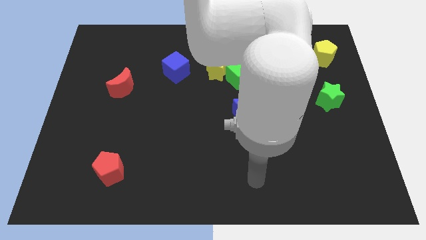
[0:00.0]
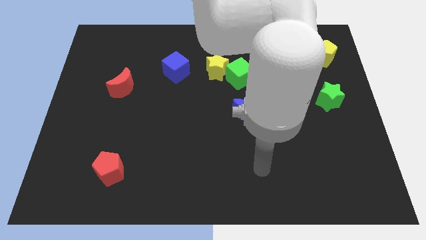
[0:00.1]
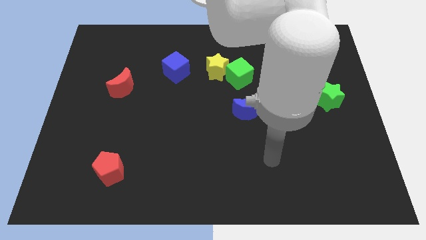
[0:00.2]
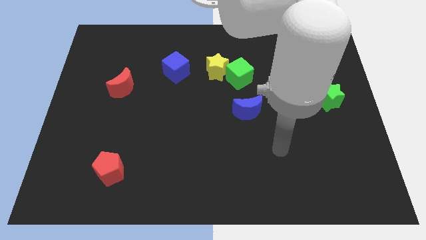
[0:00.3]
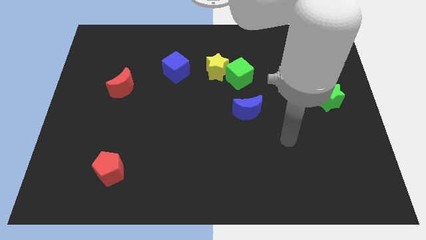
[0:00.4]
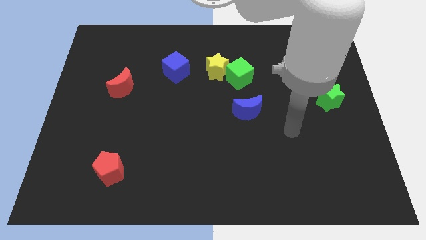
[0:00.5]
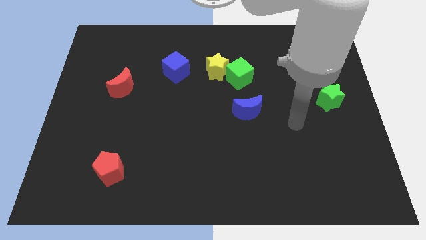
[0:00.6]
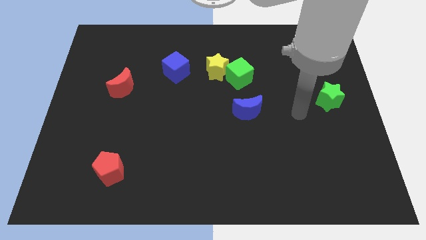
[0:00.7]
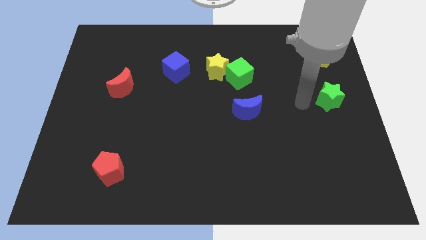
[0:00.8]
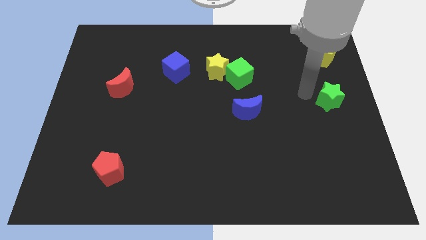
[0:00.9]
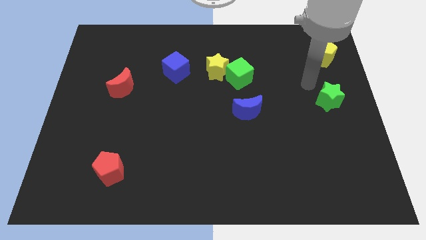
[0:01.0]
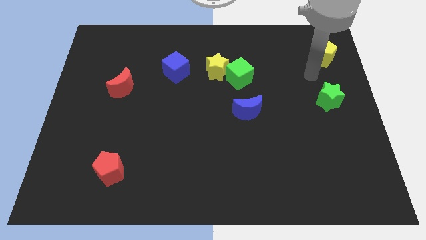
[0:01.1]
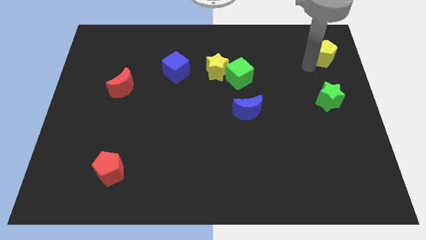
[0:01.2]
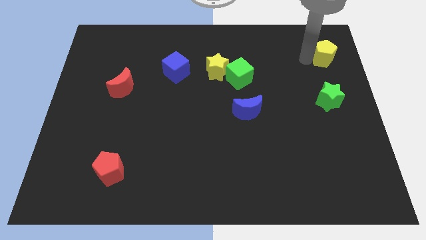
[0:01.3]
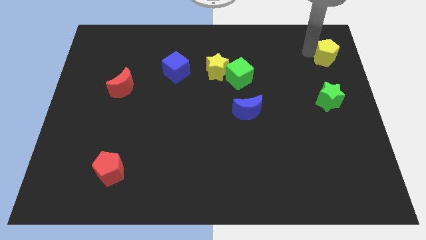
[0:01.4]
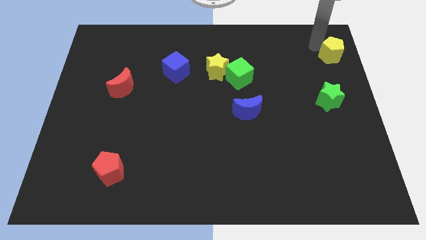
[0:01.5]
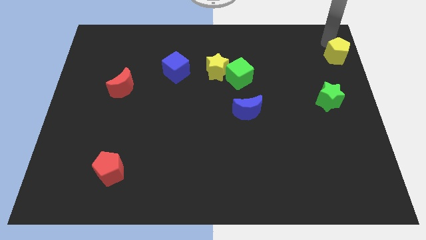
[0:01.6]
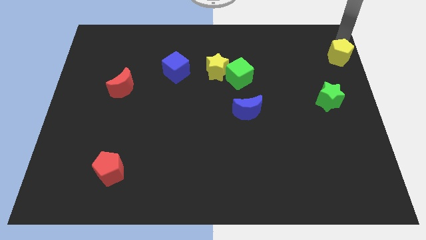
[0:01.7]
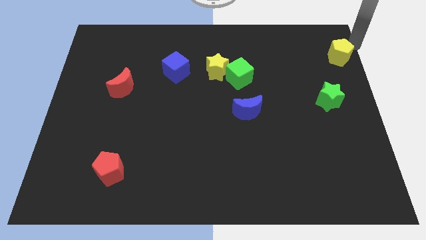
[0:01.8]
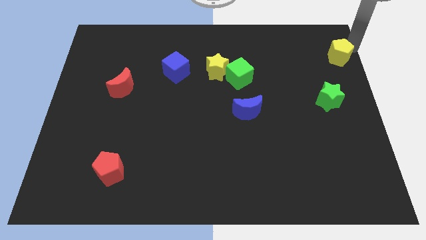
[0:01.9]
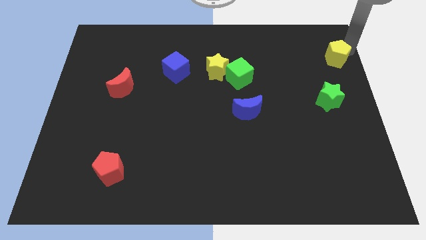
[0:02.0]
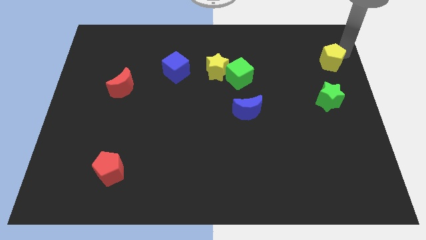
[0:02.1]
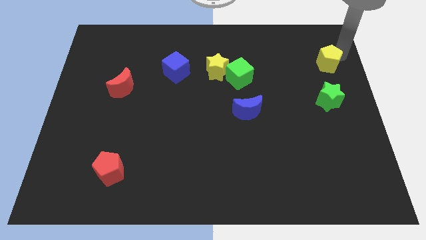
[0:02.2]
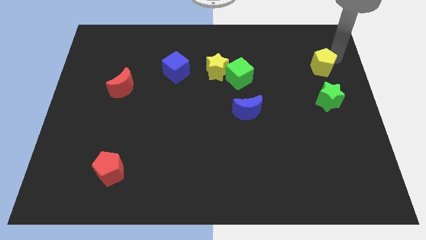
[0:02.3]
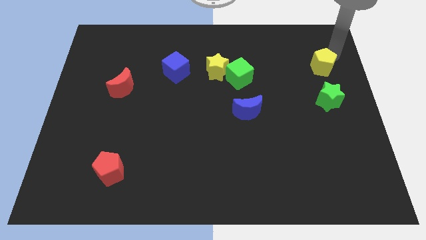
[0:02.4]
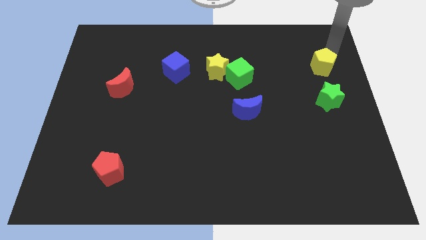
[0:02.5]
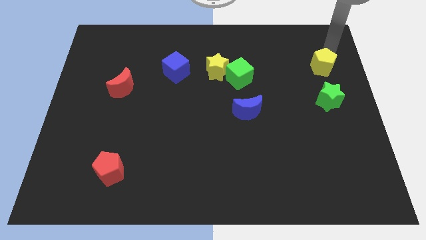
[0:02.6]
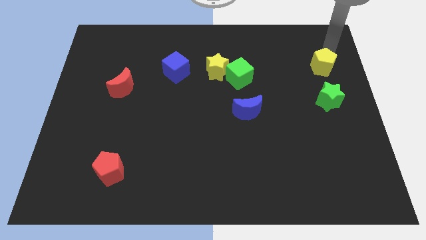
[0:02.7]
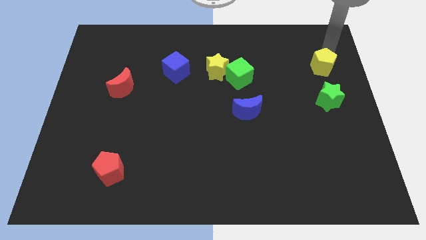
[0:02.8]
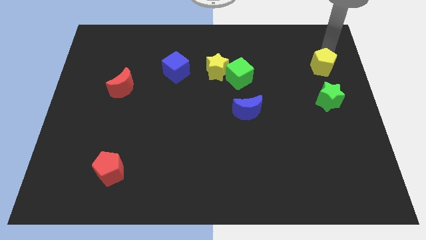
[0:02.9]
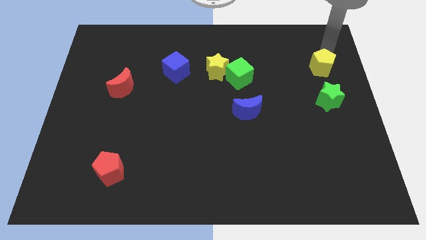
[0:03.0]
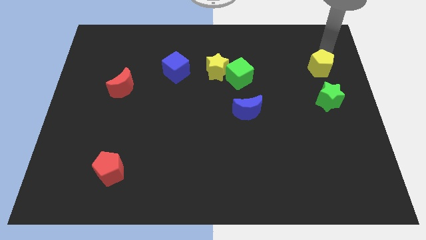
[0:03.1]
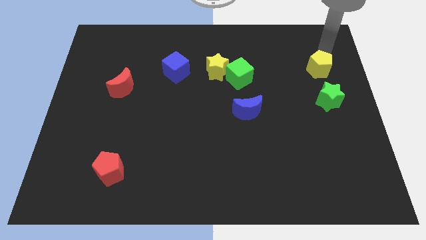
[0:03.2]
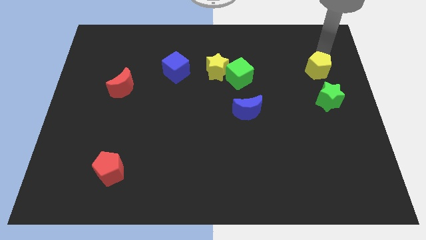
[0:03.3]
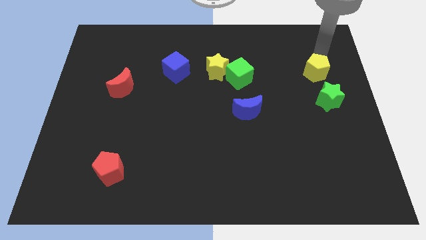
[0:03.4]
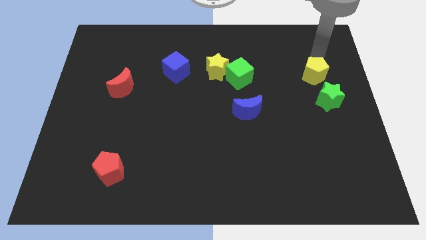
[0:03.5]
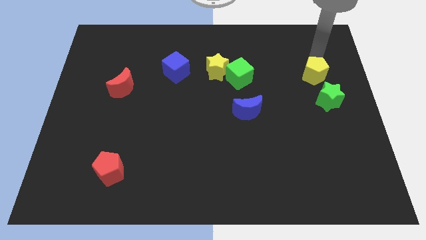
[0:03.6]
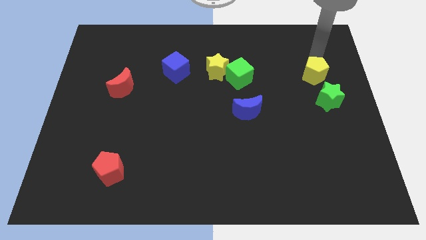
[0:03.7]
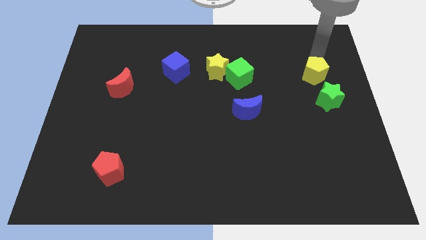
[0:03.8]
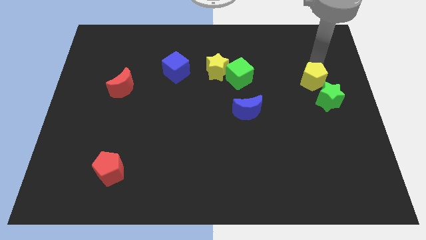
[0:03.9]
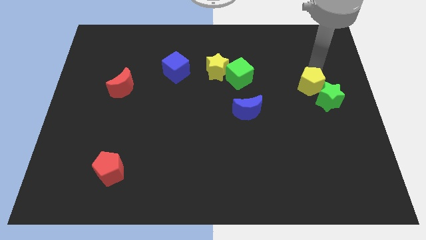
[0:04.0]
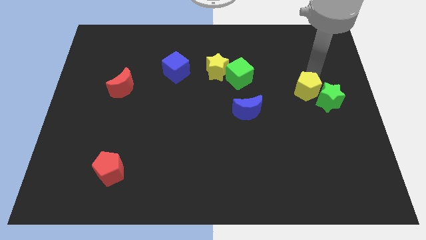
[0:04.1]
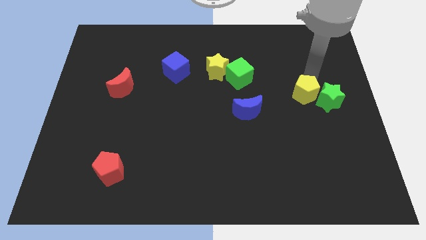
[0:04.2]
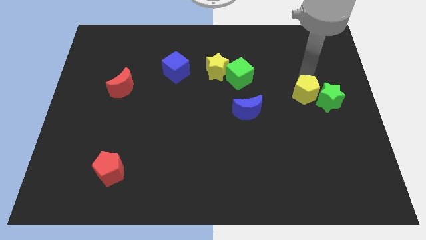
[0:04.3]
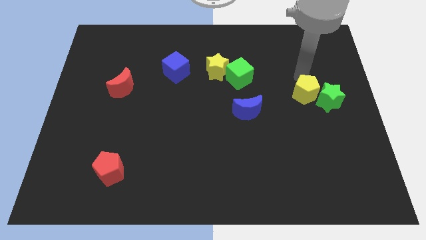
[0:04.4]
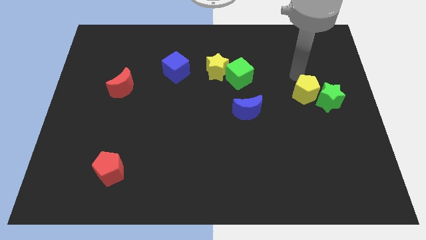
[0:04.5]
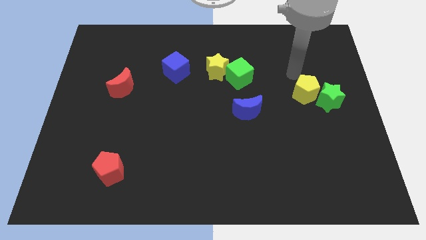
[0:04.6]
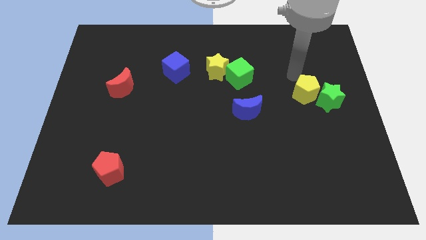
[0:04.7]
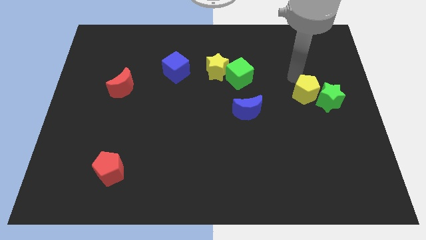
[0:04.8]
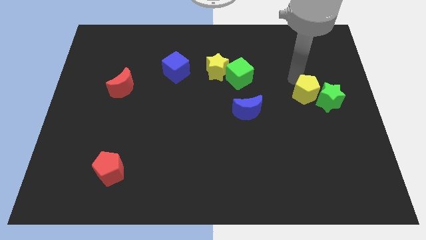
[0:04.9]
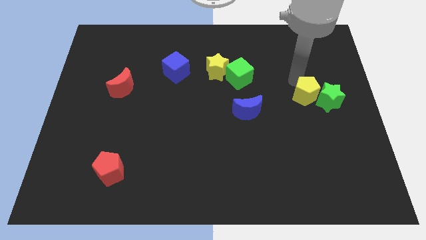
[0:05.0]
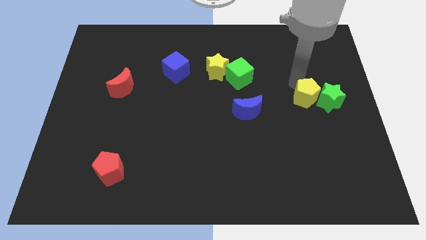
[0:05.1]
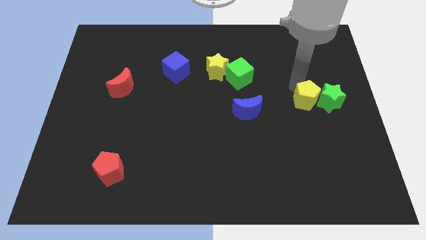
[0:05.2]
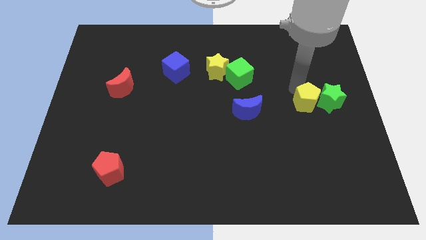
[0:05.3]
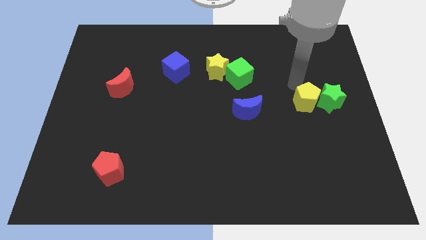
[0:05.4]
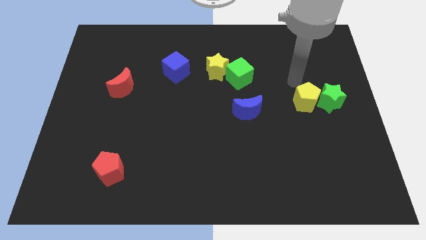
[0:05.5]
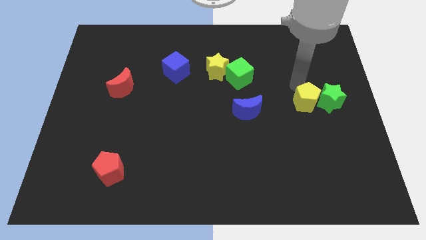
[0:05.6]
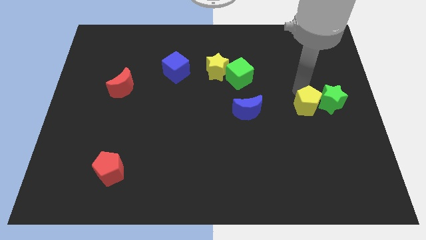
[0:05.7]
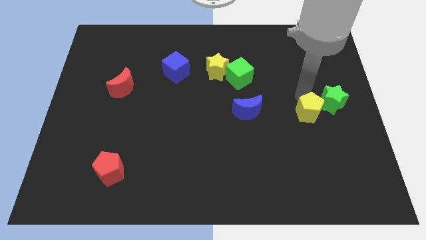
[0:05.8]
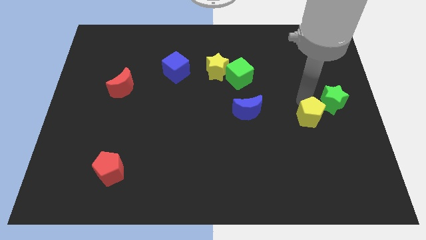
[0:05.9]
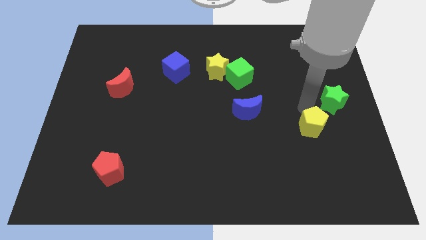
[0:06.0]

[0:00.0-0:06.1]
slide the yellow pentagon down

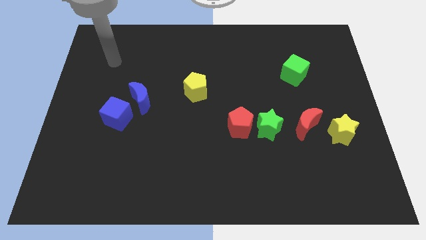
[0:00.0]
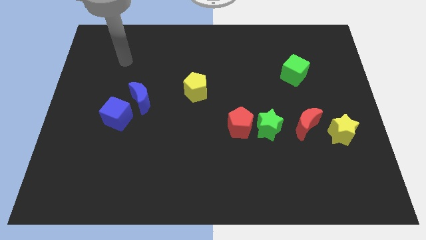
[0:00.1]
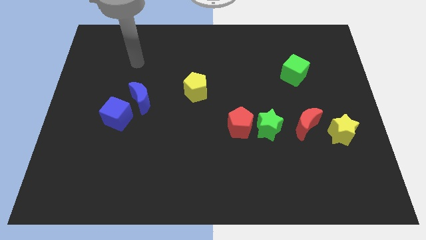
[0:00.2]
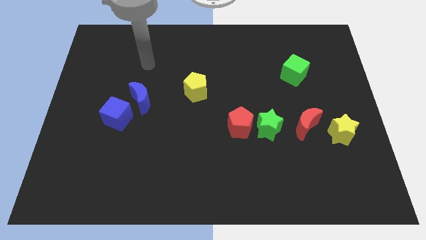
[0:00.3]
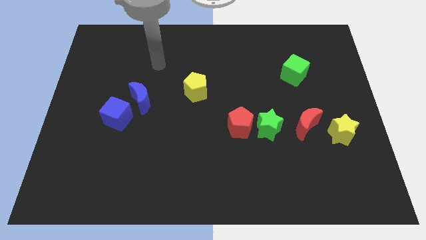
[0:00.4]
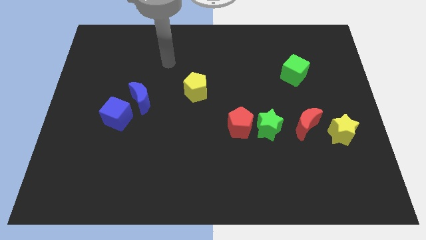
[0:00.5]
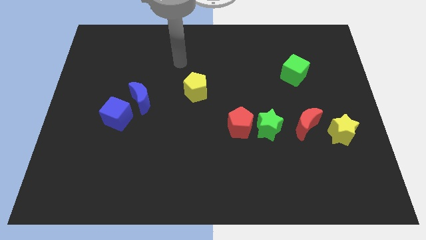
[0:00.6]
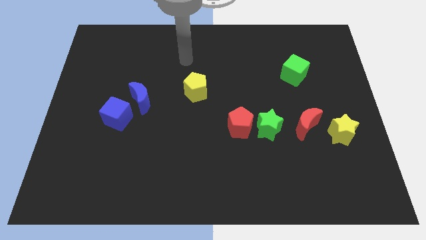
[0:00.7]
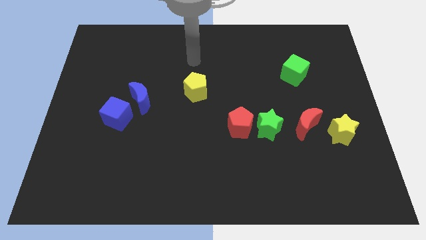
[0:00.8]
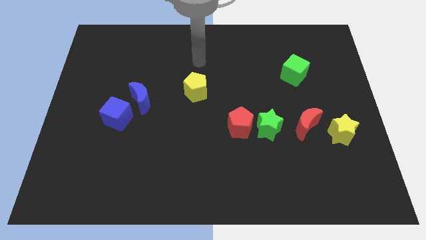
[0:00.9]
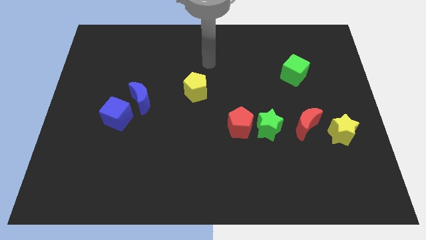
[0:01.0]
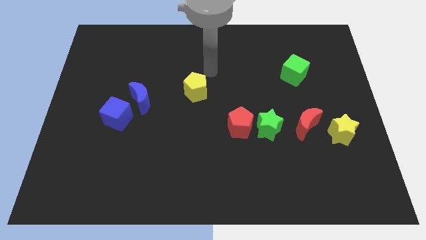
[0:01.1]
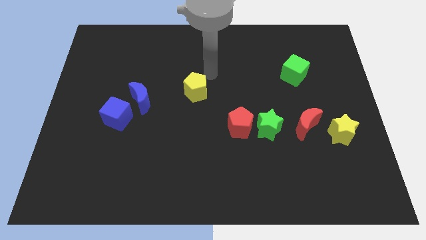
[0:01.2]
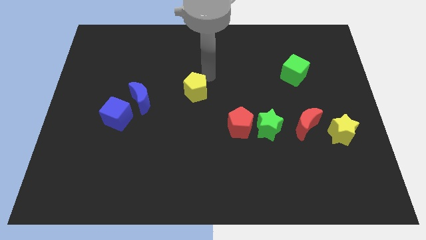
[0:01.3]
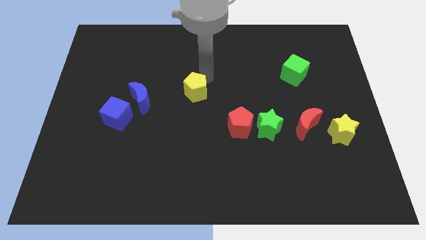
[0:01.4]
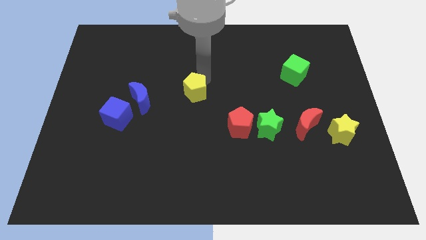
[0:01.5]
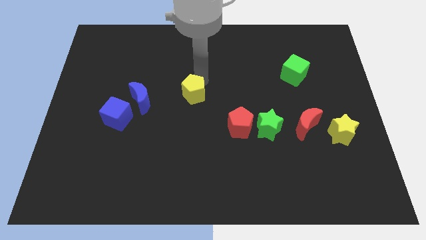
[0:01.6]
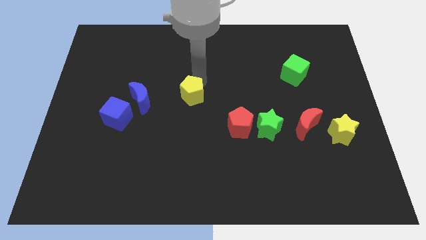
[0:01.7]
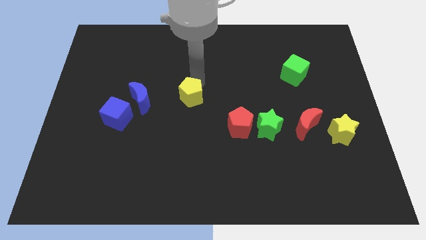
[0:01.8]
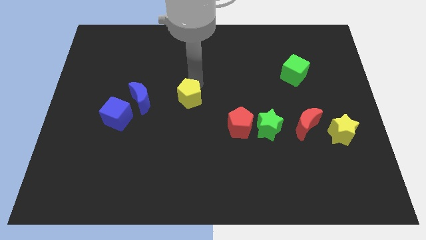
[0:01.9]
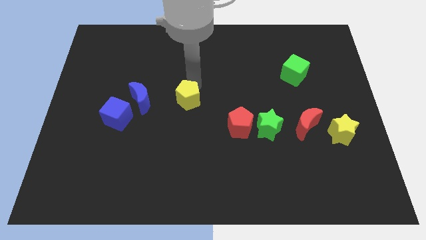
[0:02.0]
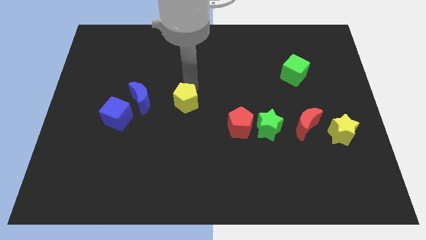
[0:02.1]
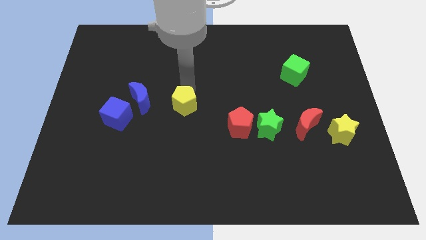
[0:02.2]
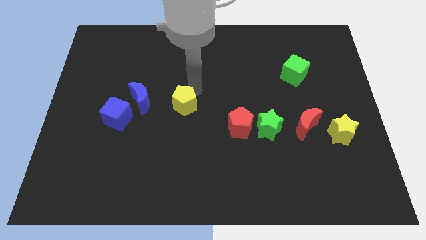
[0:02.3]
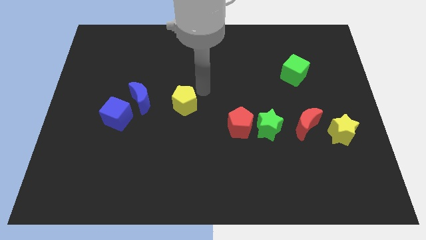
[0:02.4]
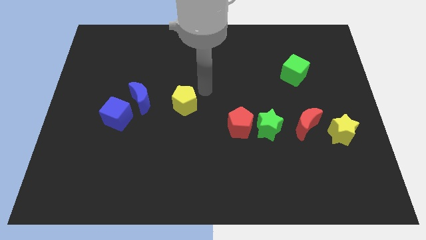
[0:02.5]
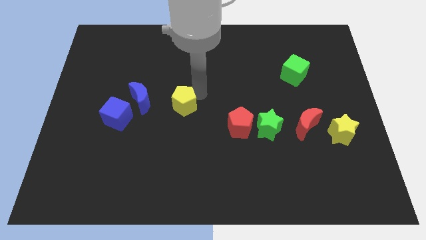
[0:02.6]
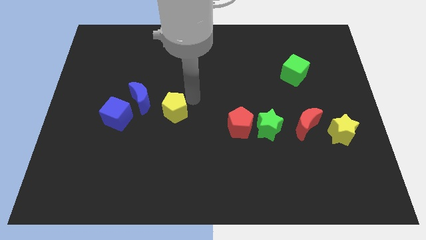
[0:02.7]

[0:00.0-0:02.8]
slightly move the yellow pentagon downwards and left diagonally
